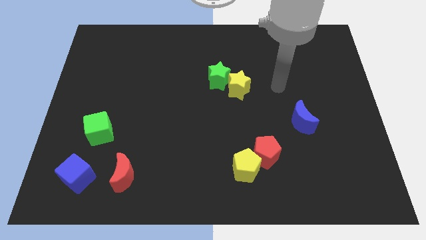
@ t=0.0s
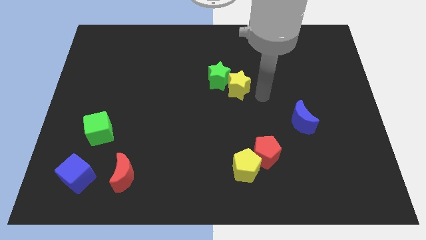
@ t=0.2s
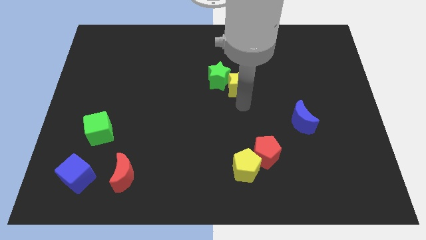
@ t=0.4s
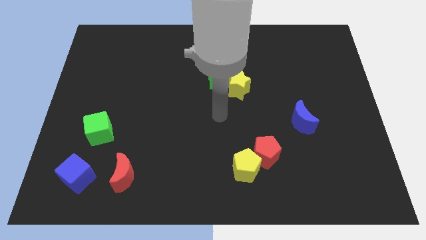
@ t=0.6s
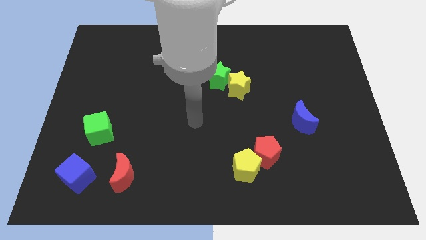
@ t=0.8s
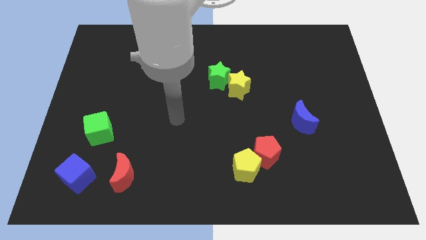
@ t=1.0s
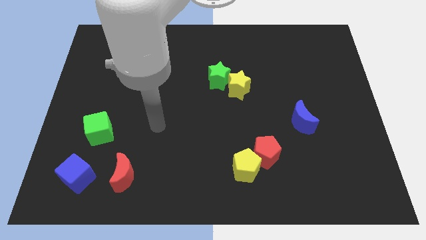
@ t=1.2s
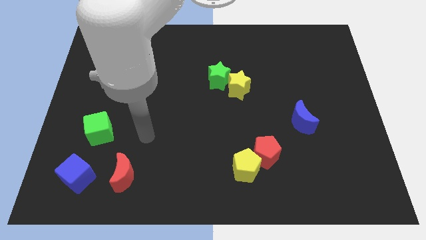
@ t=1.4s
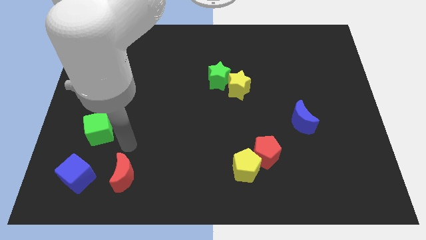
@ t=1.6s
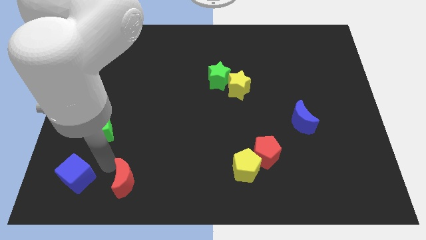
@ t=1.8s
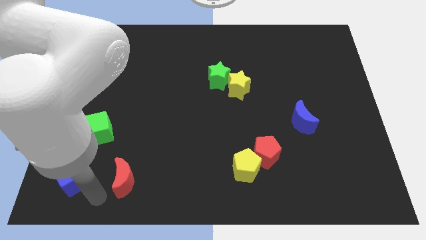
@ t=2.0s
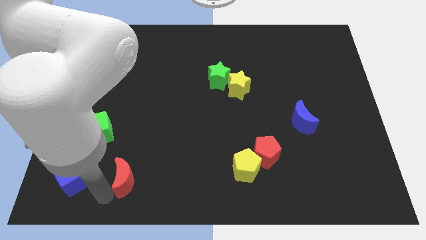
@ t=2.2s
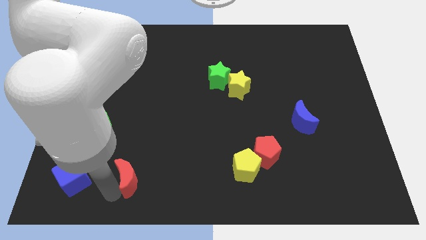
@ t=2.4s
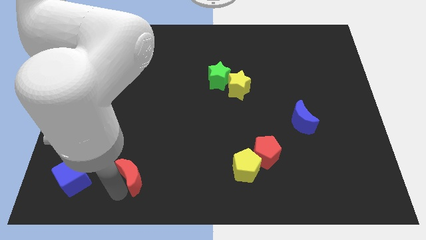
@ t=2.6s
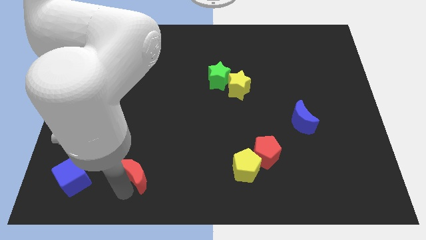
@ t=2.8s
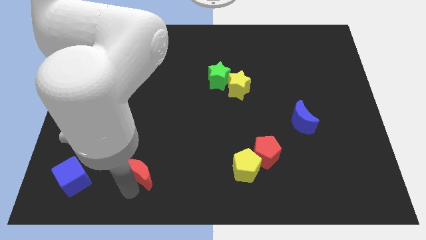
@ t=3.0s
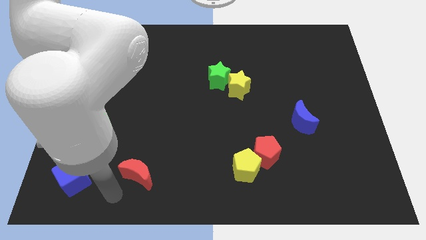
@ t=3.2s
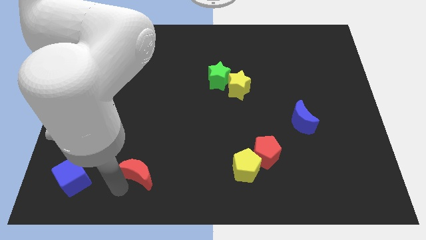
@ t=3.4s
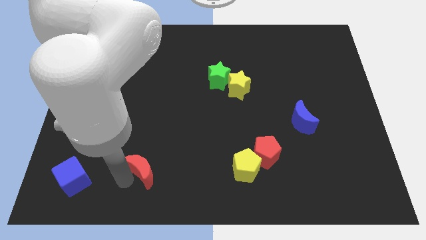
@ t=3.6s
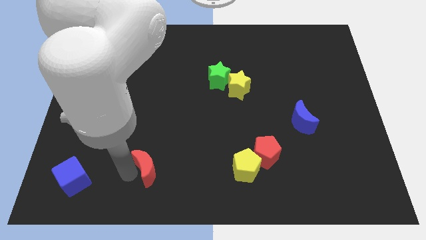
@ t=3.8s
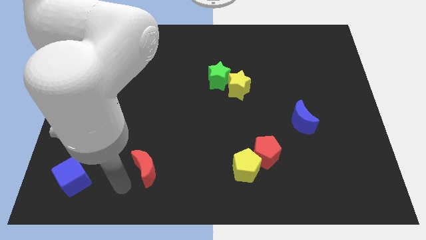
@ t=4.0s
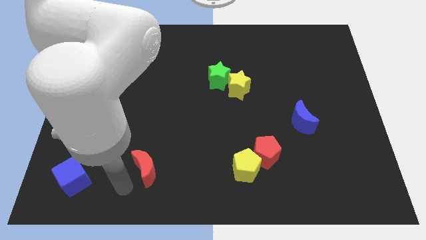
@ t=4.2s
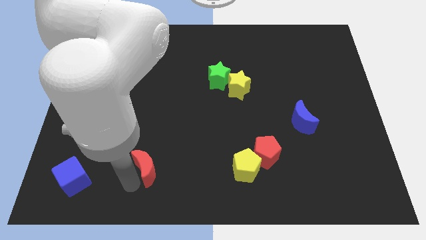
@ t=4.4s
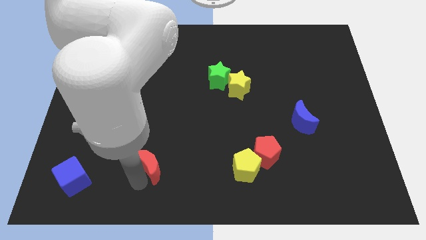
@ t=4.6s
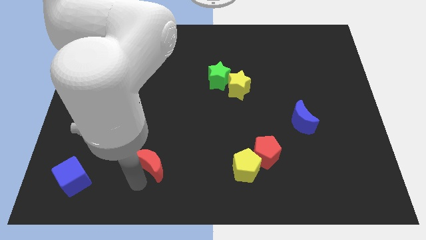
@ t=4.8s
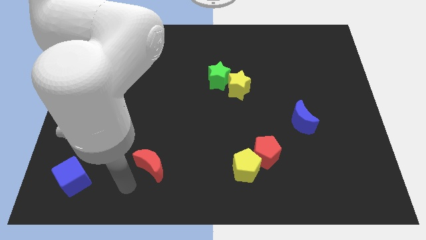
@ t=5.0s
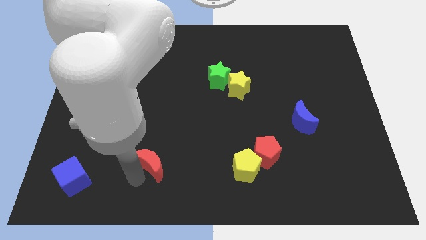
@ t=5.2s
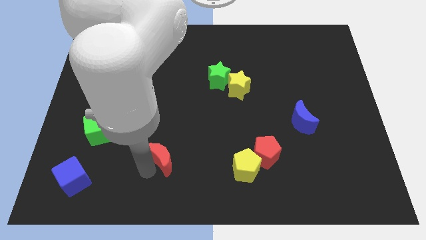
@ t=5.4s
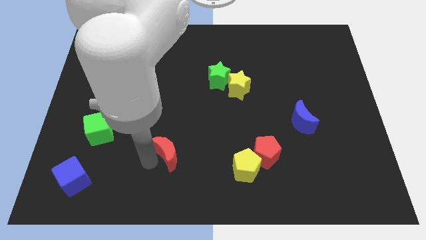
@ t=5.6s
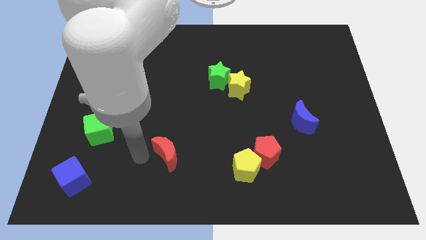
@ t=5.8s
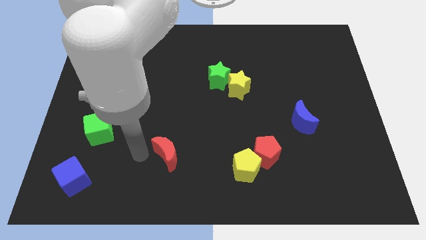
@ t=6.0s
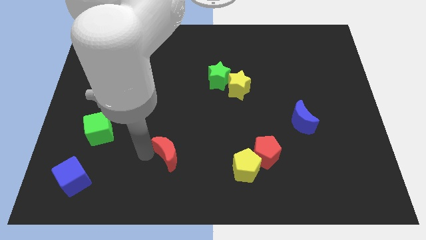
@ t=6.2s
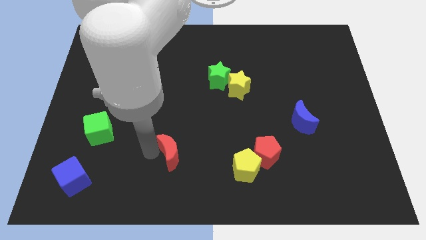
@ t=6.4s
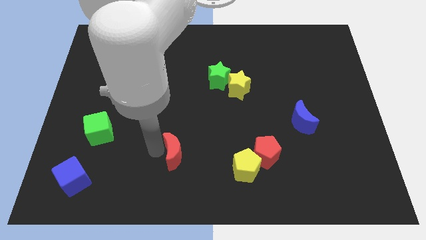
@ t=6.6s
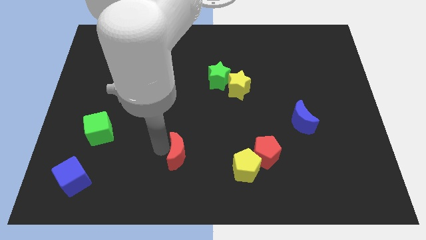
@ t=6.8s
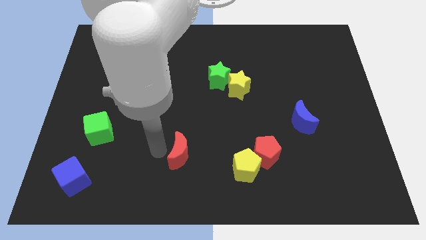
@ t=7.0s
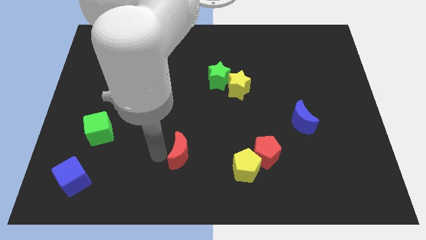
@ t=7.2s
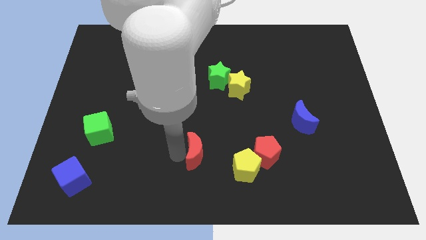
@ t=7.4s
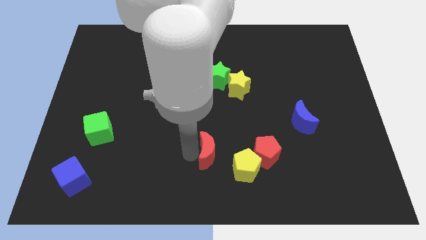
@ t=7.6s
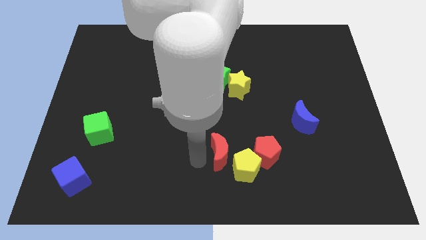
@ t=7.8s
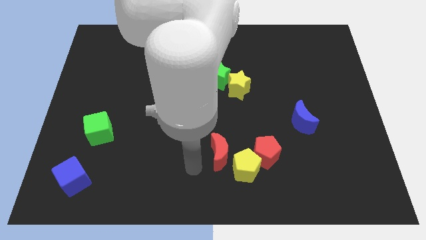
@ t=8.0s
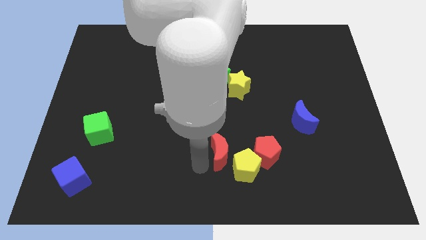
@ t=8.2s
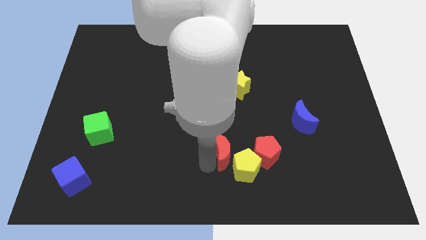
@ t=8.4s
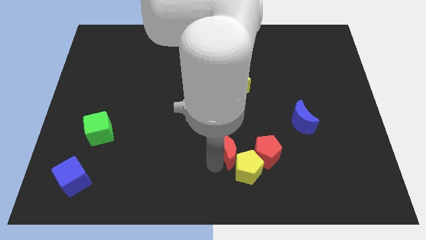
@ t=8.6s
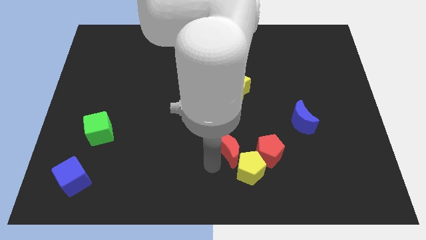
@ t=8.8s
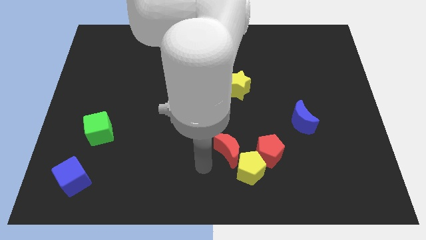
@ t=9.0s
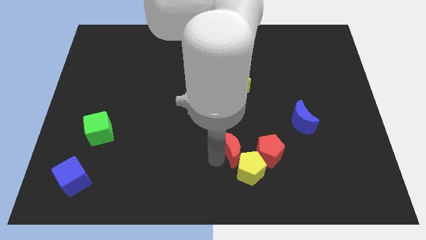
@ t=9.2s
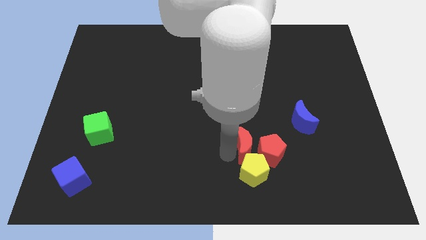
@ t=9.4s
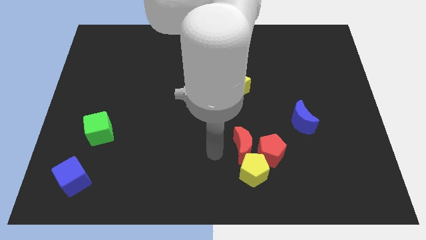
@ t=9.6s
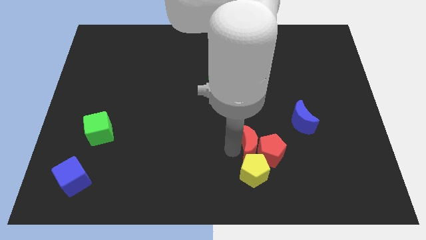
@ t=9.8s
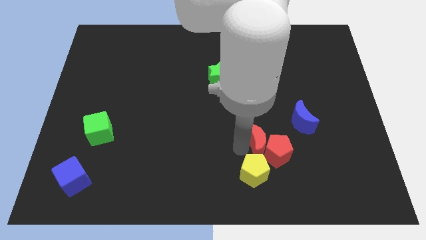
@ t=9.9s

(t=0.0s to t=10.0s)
put the red moon diagonally down and to the left of the blue moon

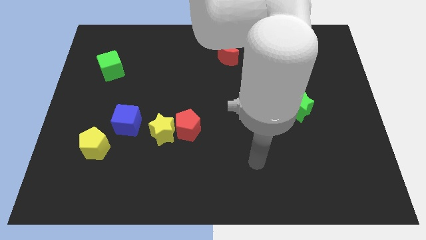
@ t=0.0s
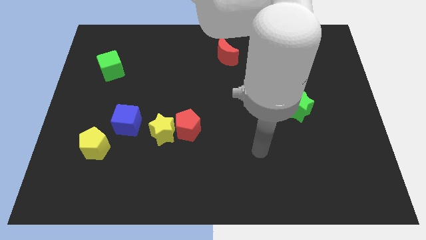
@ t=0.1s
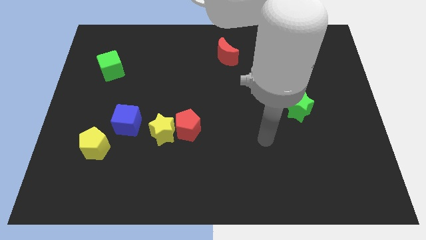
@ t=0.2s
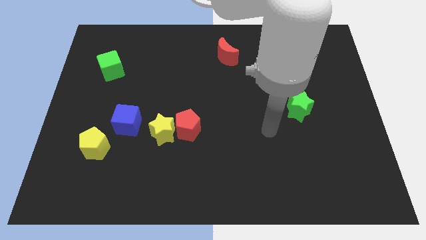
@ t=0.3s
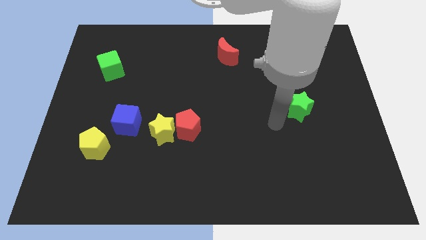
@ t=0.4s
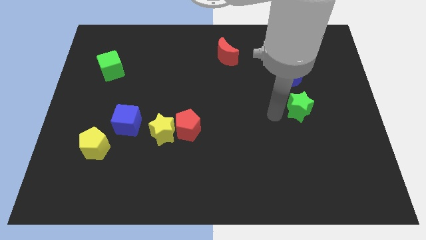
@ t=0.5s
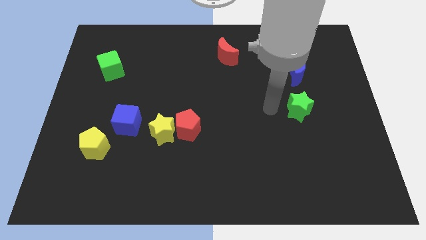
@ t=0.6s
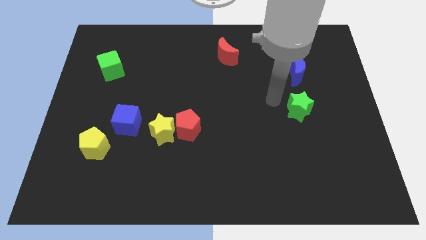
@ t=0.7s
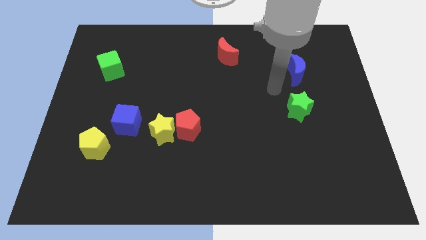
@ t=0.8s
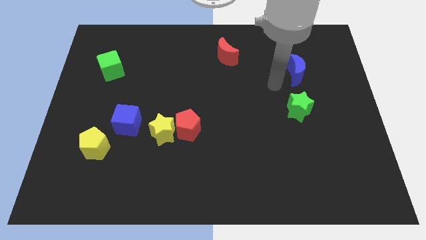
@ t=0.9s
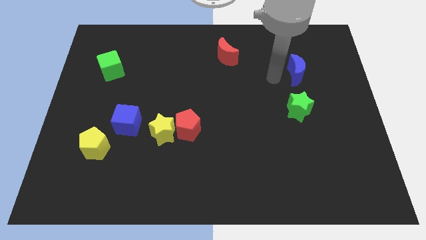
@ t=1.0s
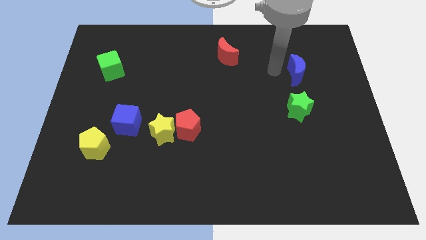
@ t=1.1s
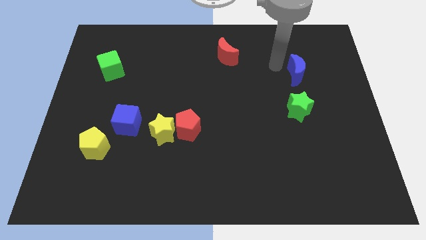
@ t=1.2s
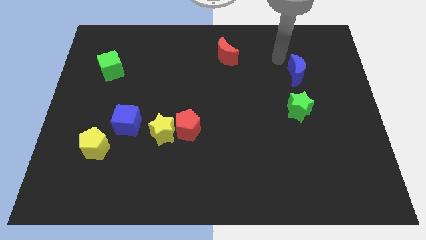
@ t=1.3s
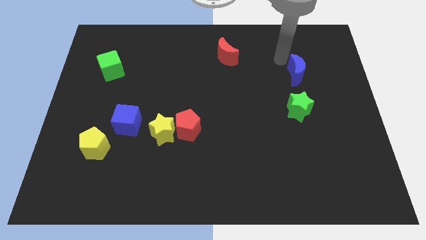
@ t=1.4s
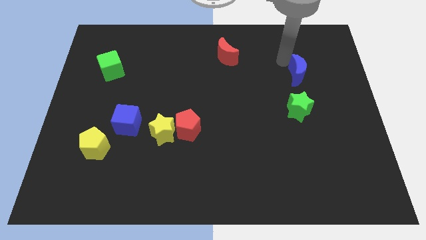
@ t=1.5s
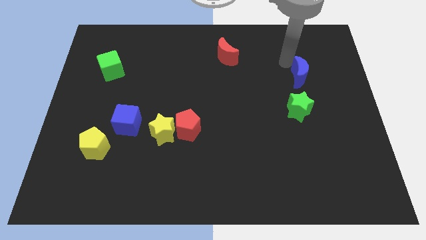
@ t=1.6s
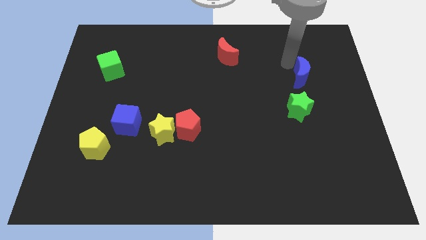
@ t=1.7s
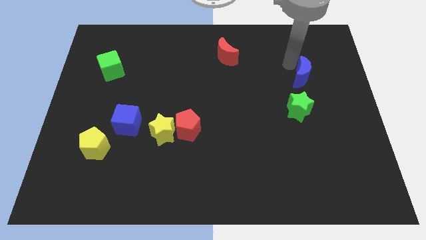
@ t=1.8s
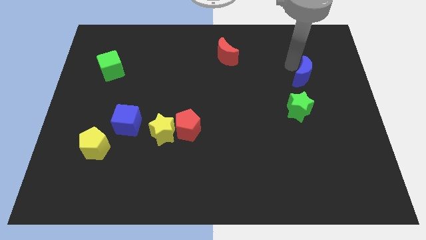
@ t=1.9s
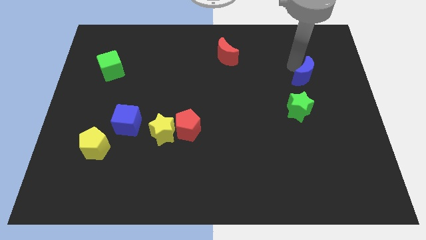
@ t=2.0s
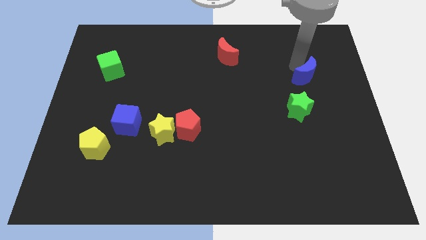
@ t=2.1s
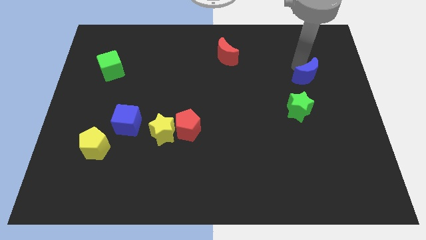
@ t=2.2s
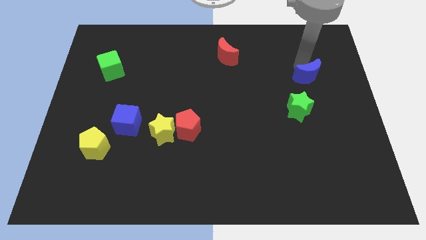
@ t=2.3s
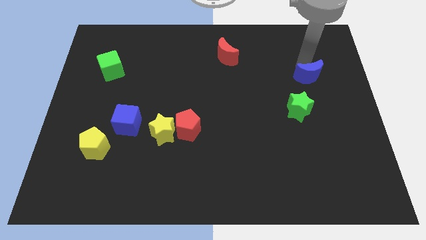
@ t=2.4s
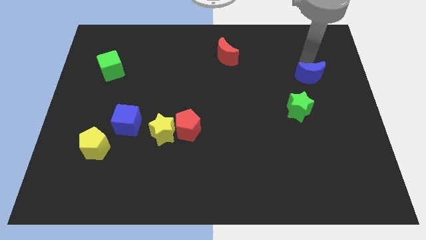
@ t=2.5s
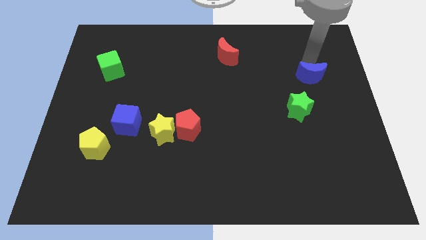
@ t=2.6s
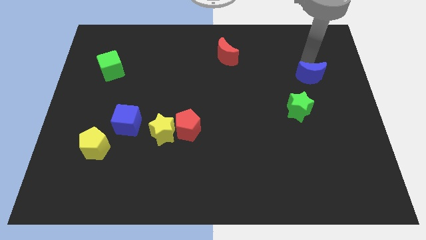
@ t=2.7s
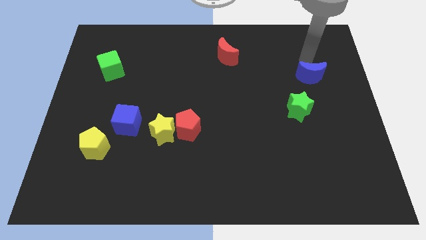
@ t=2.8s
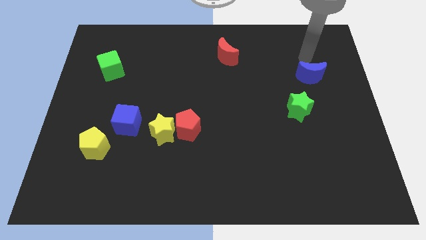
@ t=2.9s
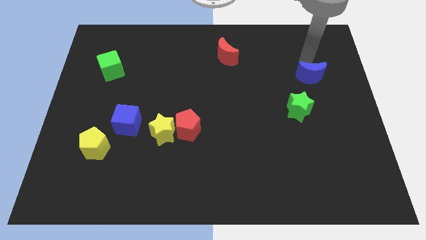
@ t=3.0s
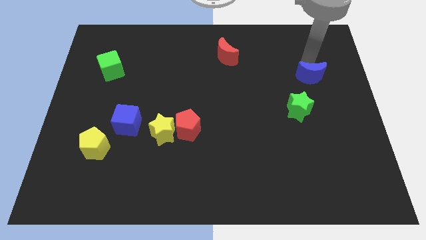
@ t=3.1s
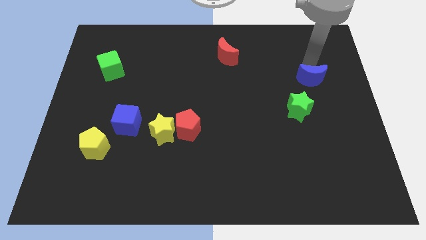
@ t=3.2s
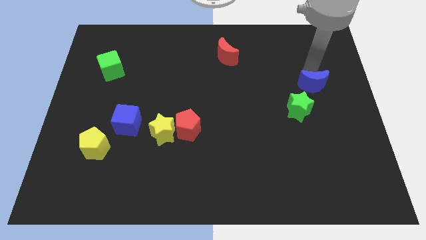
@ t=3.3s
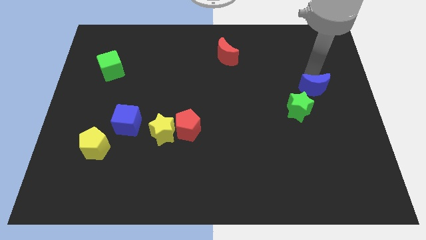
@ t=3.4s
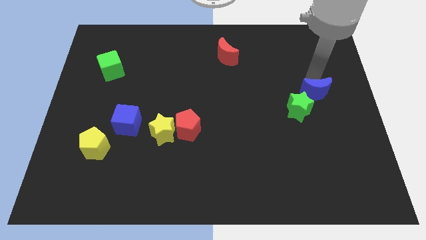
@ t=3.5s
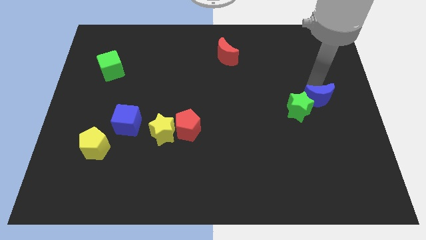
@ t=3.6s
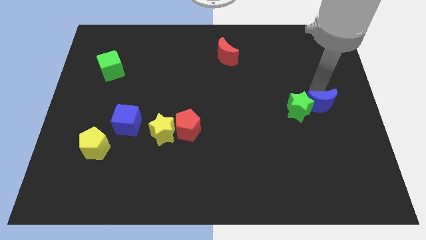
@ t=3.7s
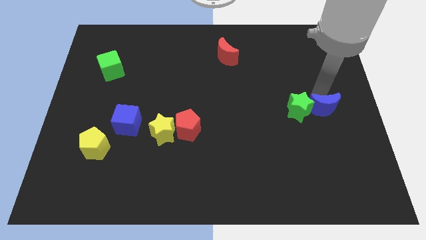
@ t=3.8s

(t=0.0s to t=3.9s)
push the blue moon to the bottom right of the green star
